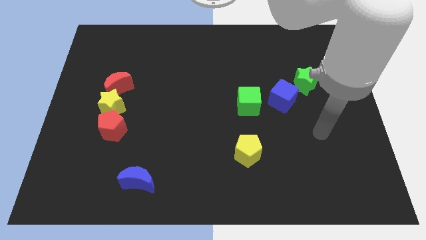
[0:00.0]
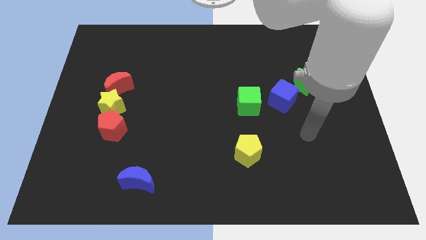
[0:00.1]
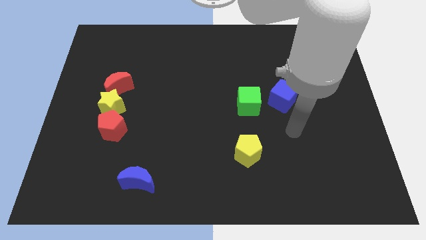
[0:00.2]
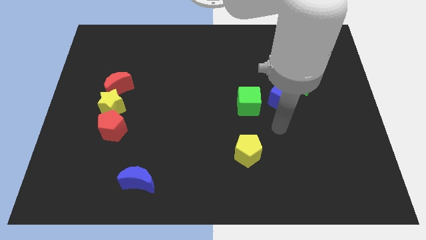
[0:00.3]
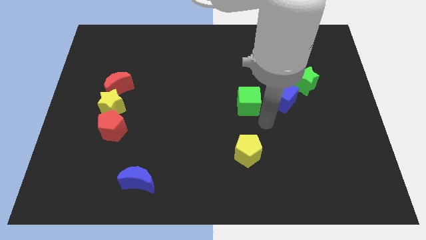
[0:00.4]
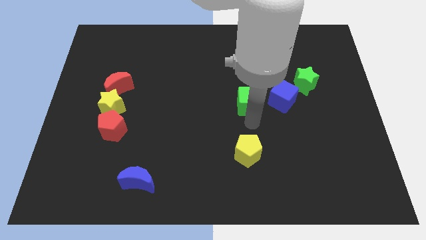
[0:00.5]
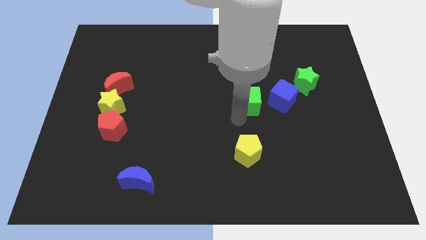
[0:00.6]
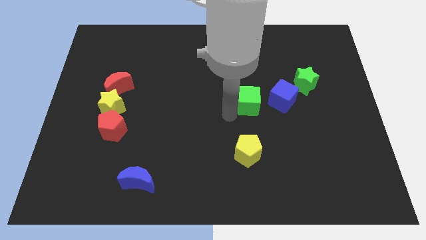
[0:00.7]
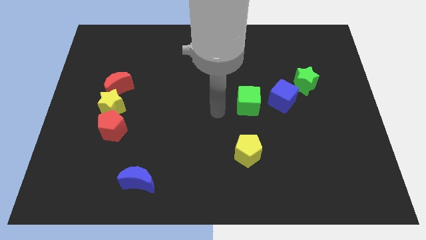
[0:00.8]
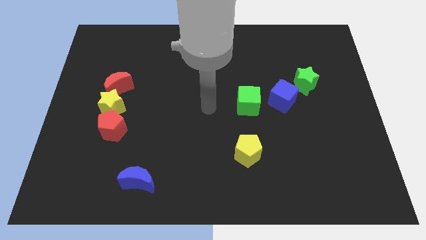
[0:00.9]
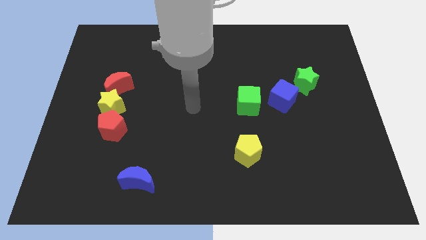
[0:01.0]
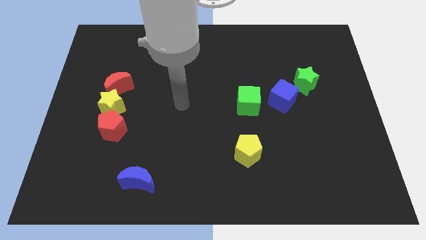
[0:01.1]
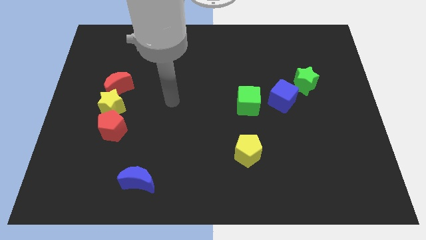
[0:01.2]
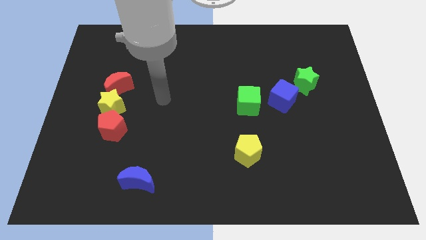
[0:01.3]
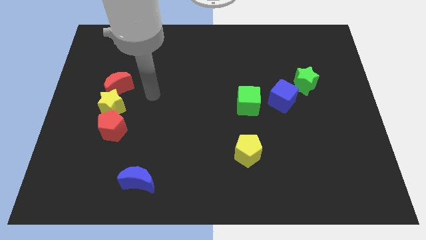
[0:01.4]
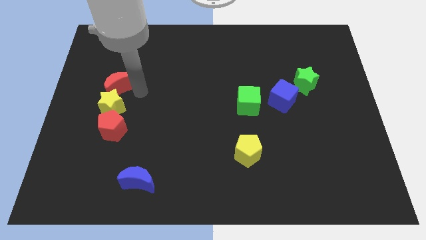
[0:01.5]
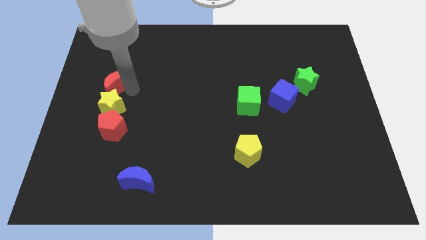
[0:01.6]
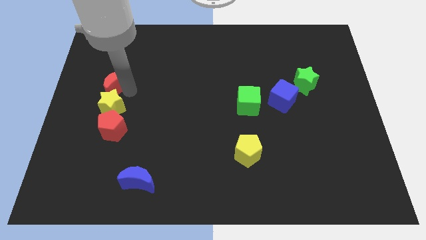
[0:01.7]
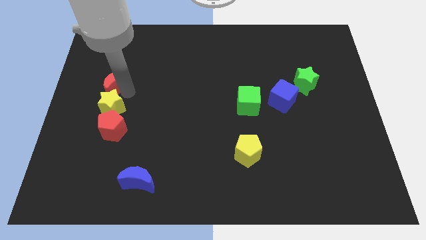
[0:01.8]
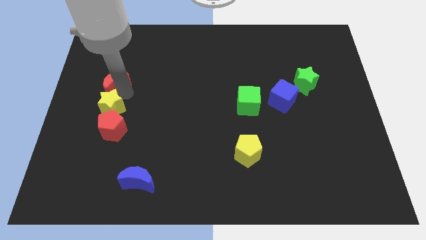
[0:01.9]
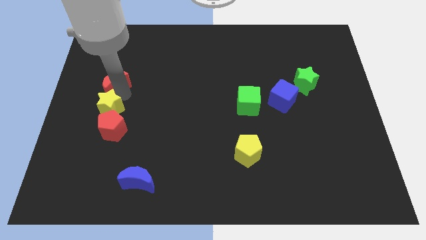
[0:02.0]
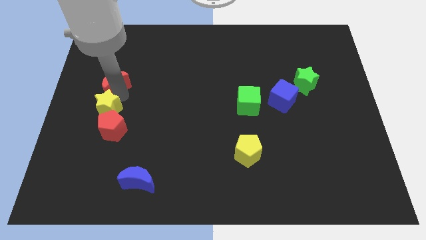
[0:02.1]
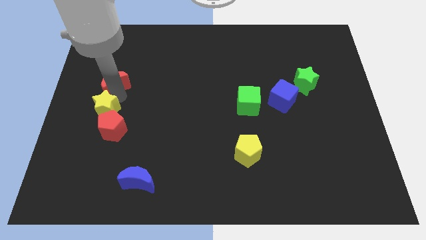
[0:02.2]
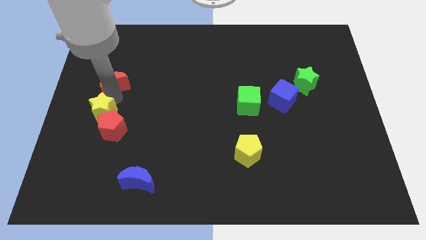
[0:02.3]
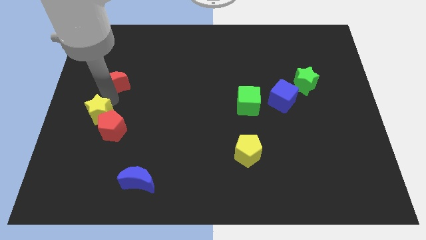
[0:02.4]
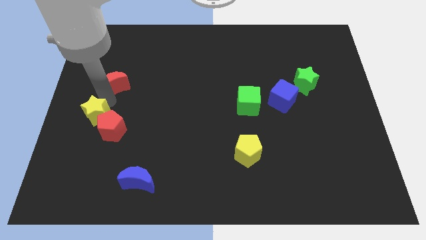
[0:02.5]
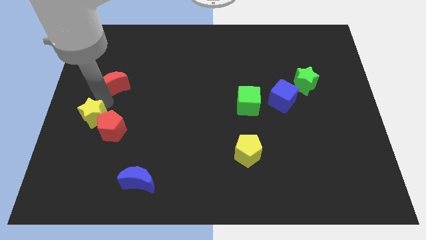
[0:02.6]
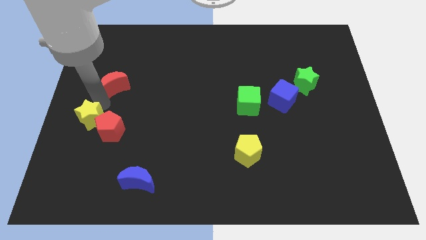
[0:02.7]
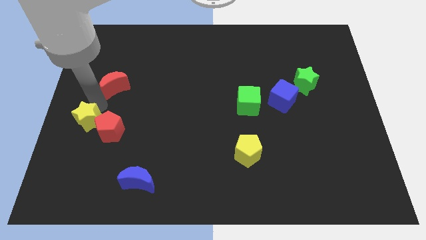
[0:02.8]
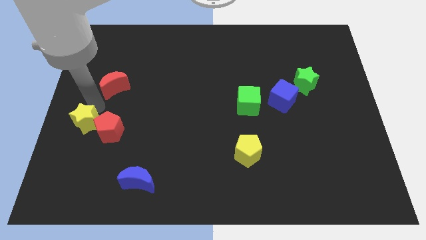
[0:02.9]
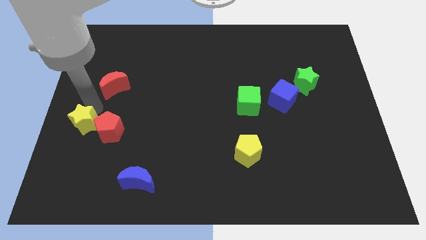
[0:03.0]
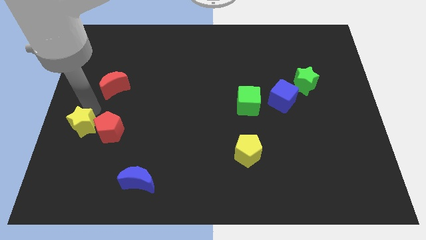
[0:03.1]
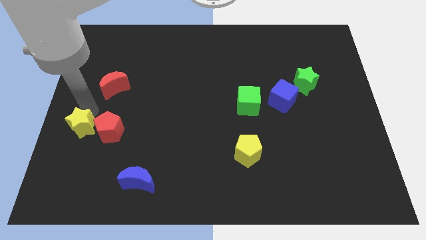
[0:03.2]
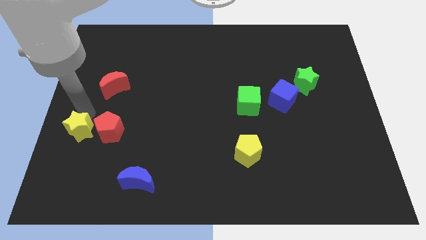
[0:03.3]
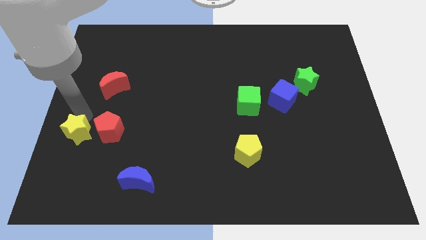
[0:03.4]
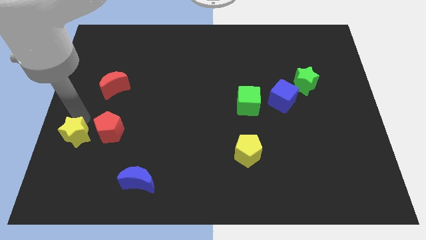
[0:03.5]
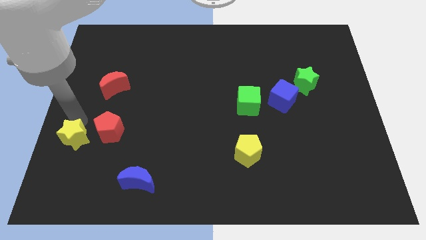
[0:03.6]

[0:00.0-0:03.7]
move the yellow star a bit down

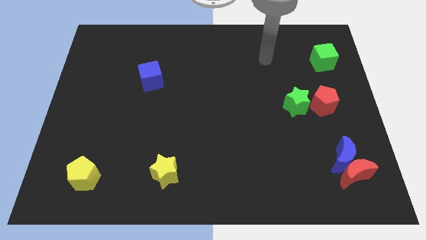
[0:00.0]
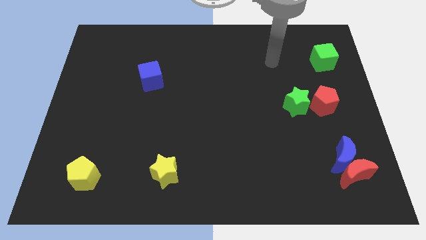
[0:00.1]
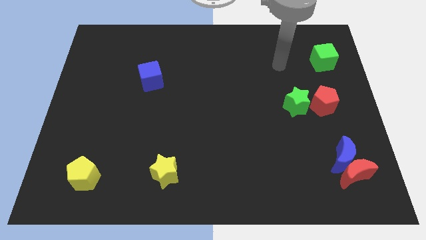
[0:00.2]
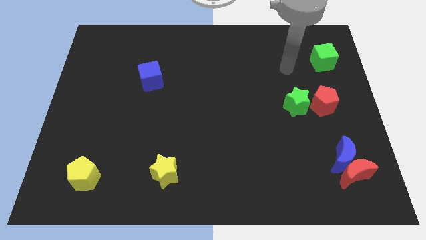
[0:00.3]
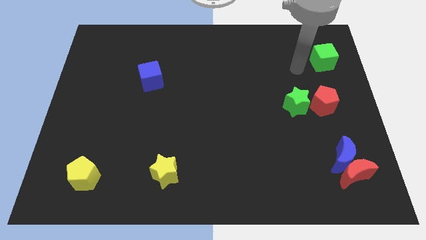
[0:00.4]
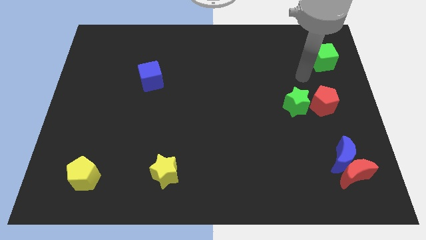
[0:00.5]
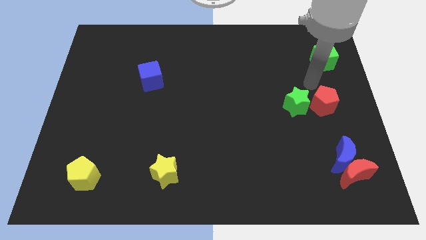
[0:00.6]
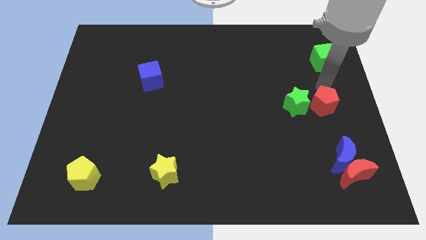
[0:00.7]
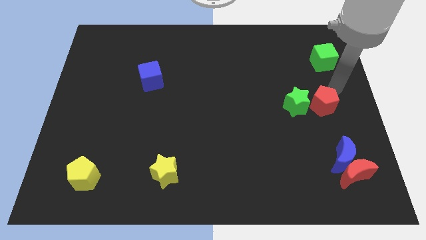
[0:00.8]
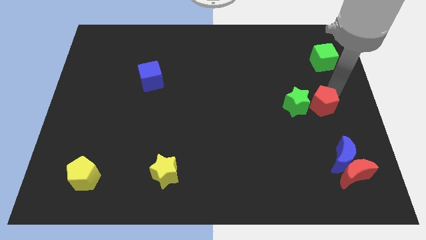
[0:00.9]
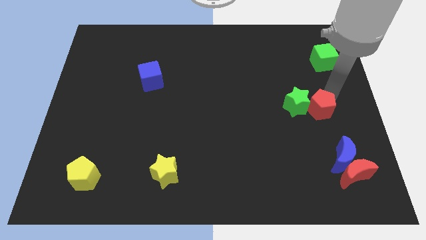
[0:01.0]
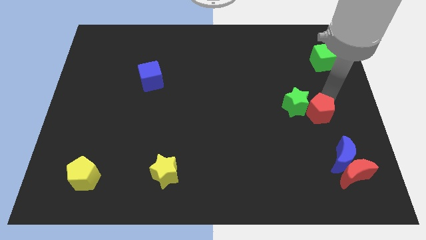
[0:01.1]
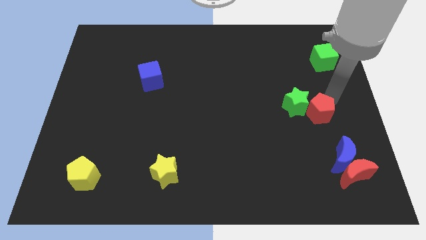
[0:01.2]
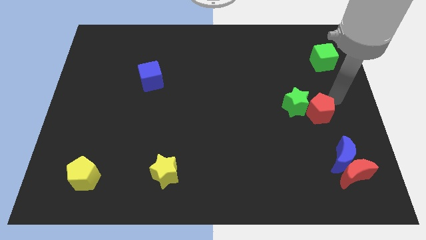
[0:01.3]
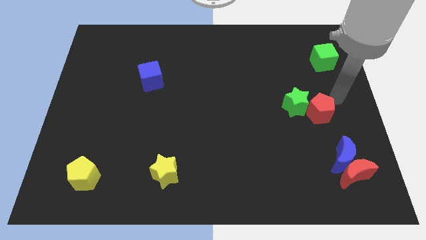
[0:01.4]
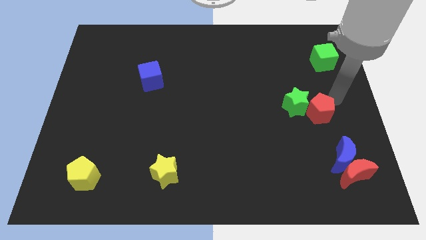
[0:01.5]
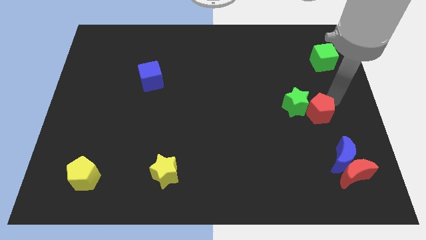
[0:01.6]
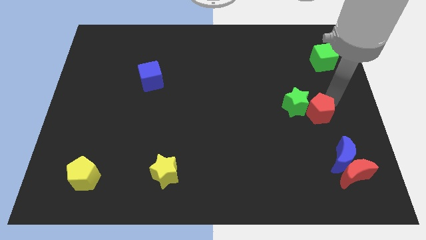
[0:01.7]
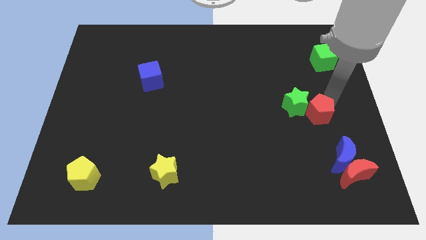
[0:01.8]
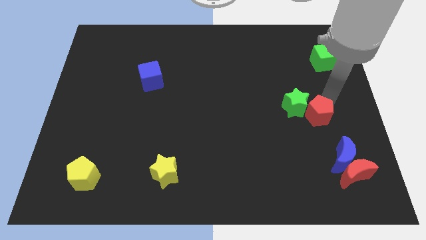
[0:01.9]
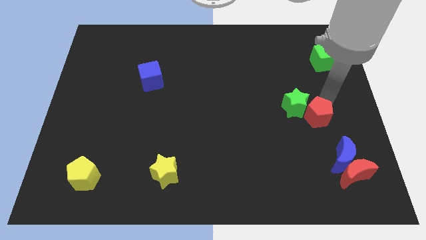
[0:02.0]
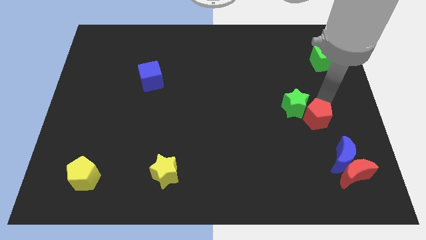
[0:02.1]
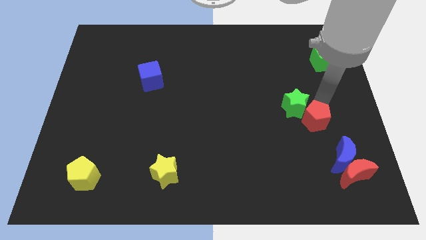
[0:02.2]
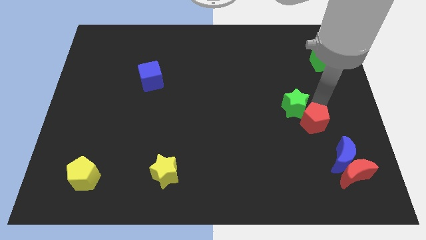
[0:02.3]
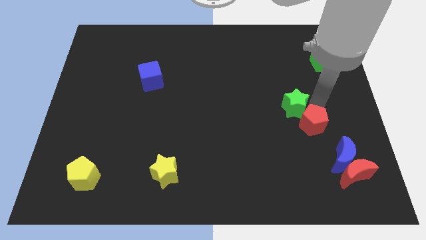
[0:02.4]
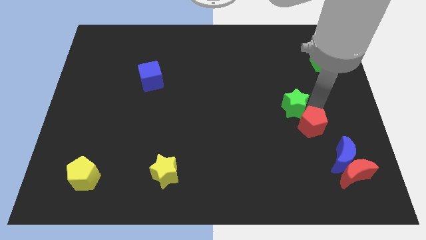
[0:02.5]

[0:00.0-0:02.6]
slightly push the red pentagon diagonally downwards and to the left

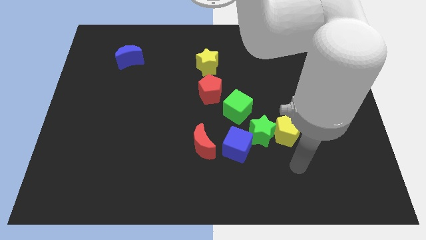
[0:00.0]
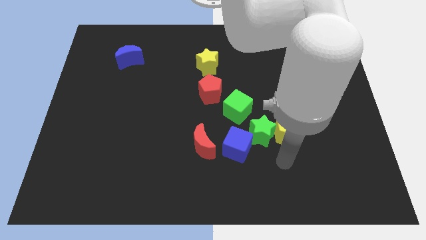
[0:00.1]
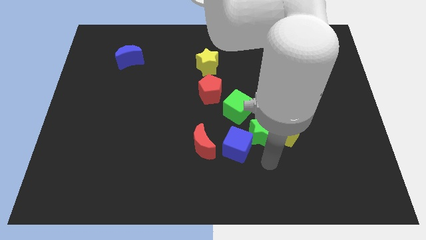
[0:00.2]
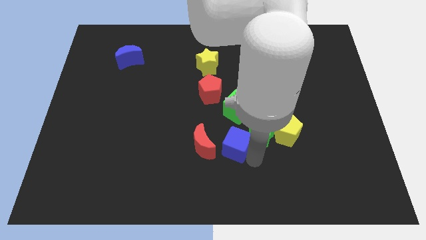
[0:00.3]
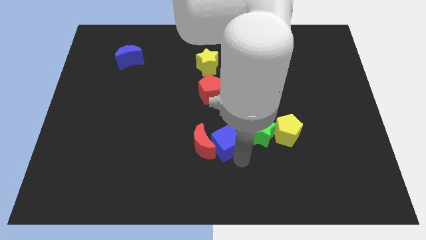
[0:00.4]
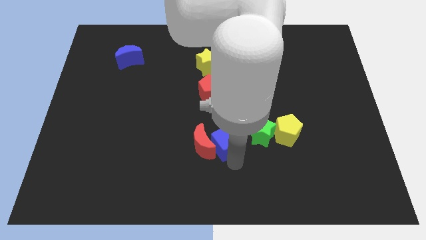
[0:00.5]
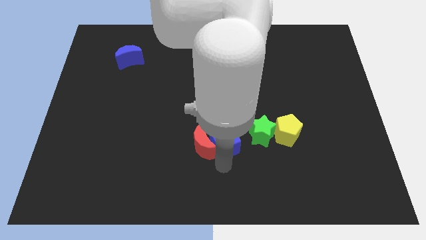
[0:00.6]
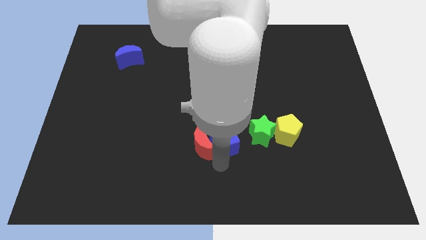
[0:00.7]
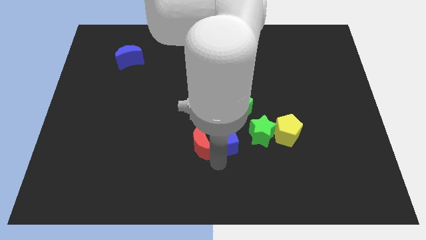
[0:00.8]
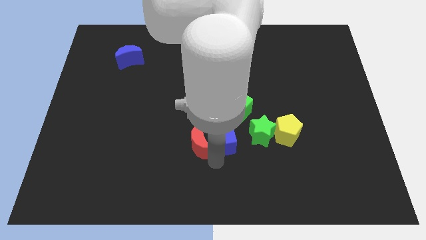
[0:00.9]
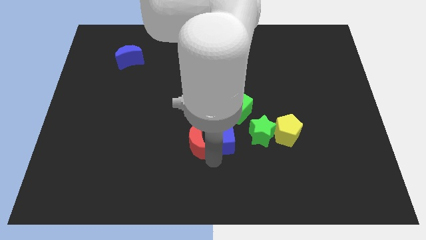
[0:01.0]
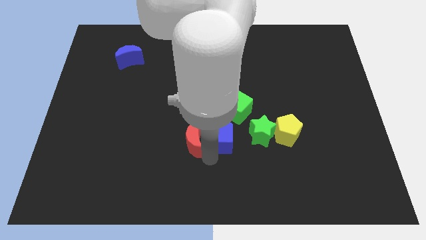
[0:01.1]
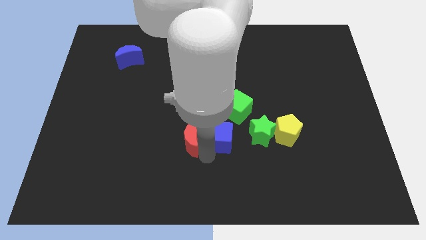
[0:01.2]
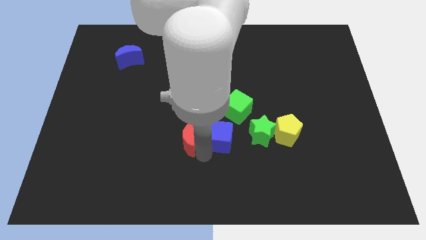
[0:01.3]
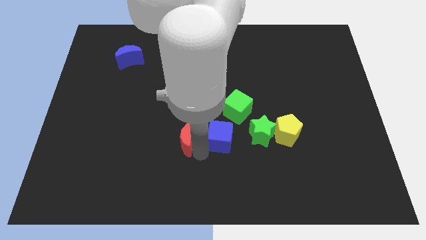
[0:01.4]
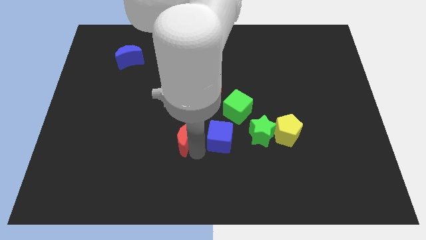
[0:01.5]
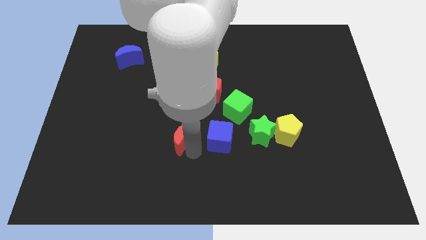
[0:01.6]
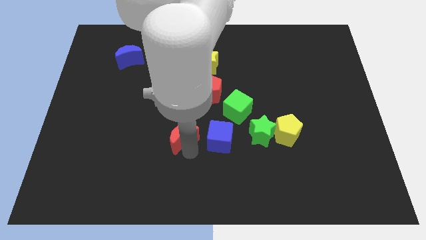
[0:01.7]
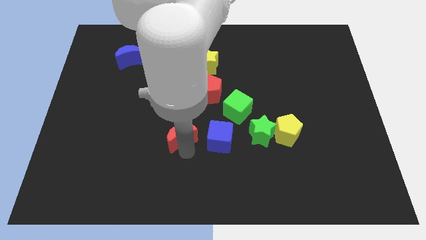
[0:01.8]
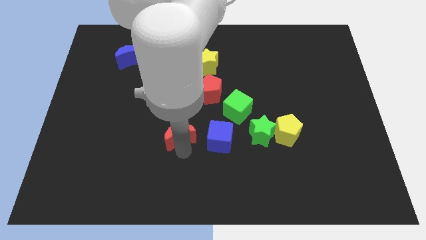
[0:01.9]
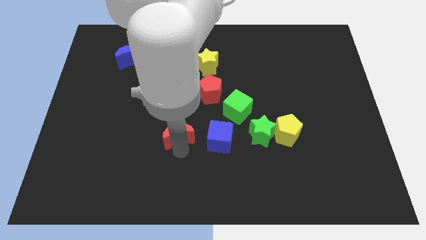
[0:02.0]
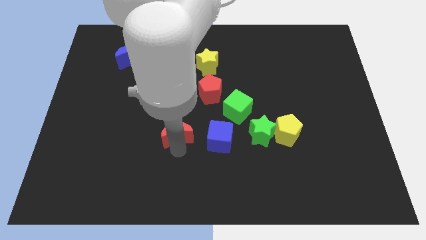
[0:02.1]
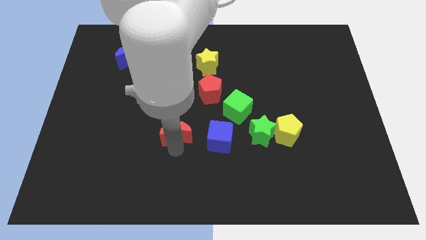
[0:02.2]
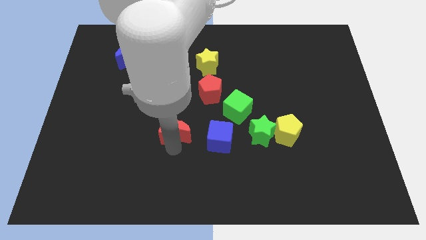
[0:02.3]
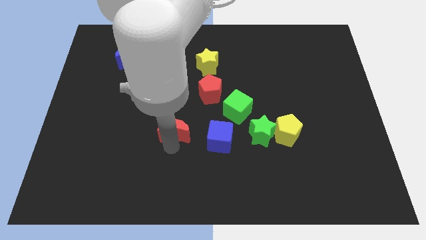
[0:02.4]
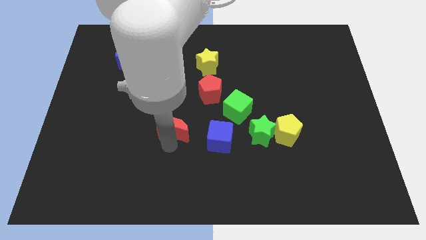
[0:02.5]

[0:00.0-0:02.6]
slide the red moon a little bit upwards and left diagonally
